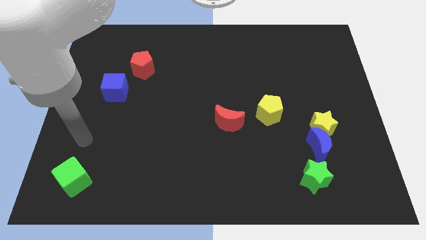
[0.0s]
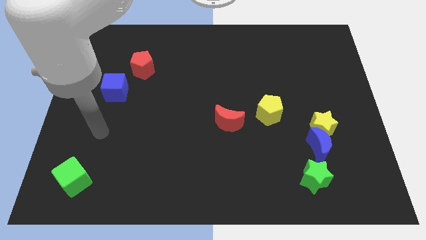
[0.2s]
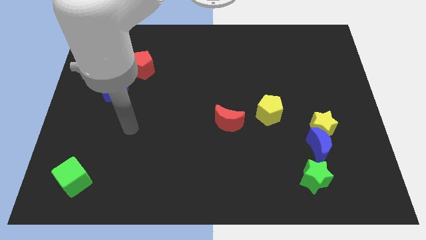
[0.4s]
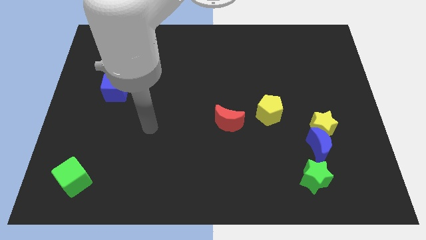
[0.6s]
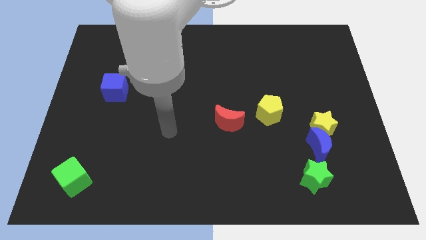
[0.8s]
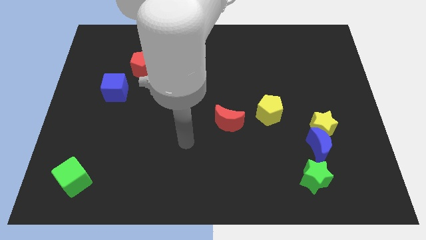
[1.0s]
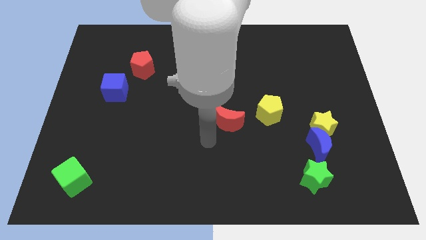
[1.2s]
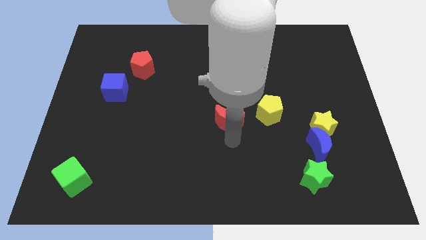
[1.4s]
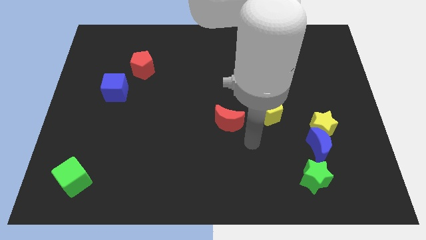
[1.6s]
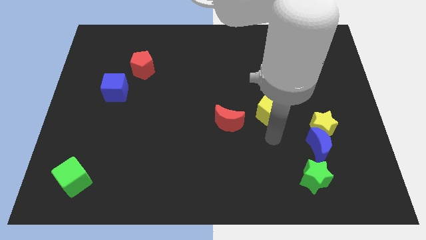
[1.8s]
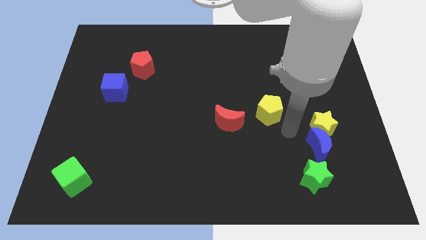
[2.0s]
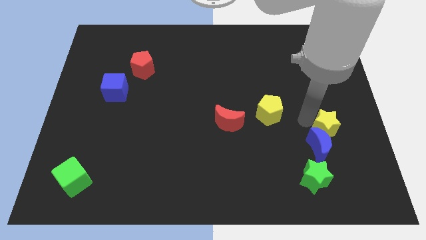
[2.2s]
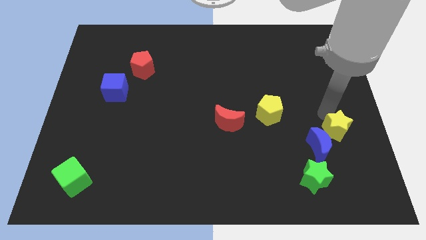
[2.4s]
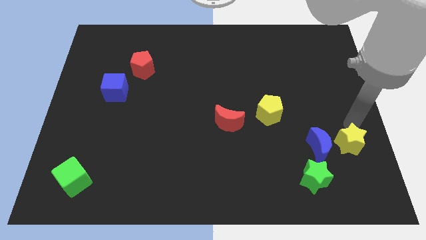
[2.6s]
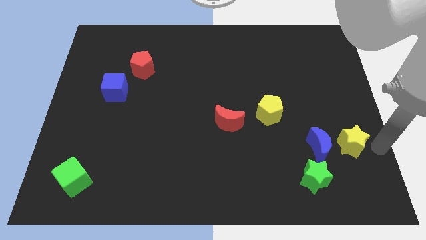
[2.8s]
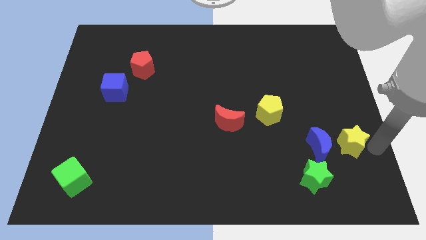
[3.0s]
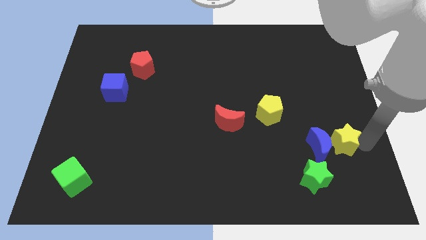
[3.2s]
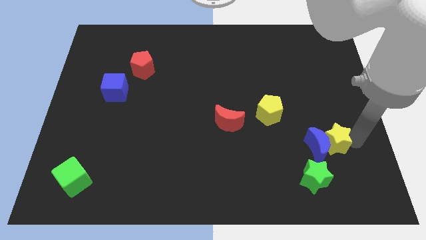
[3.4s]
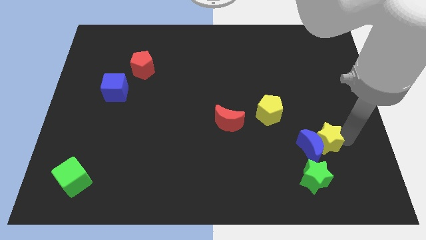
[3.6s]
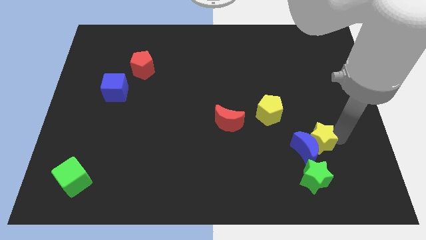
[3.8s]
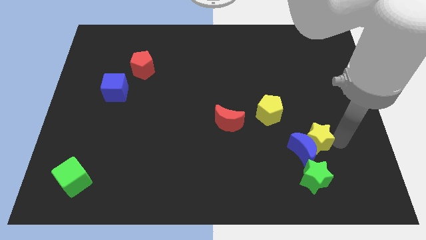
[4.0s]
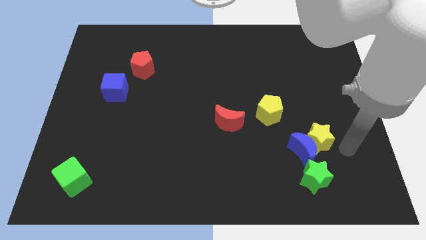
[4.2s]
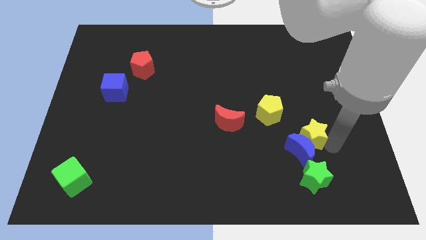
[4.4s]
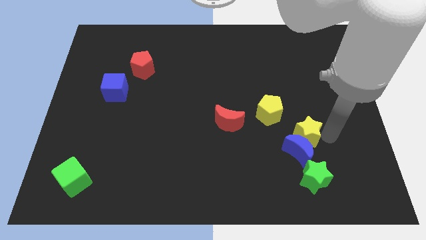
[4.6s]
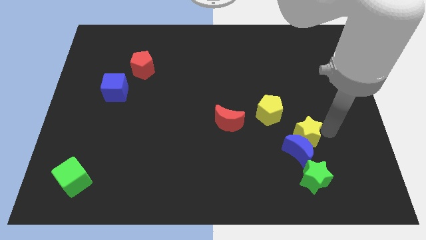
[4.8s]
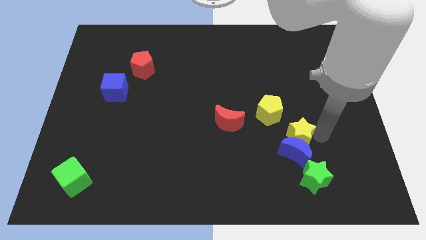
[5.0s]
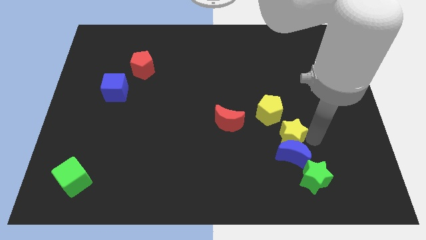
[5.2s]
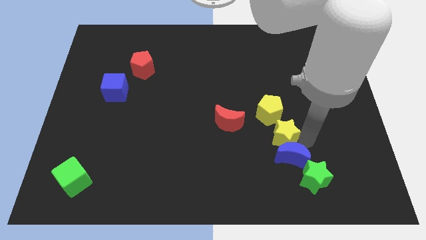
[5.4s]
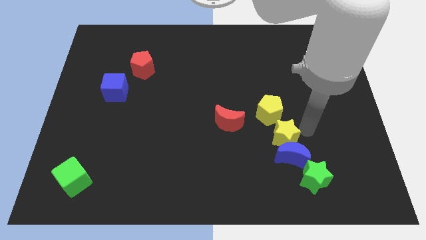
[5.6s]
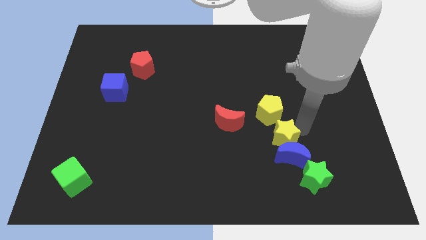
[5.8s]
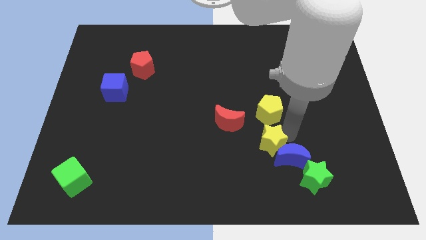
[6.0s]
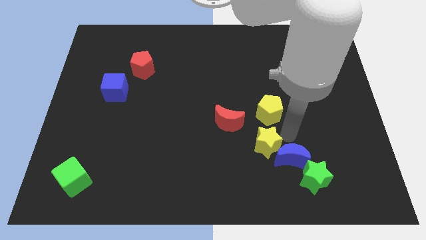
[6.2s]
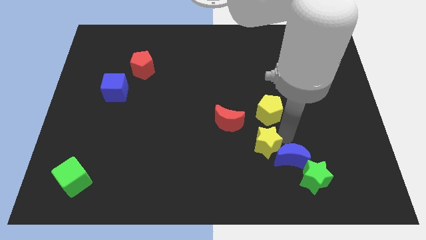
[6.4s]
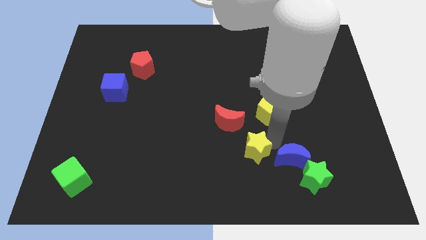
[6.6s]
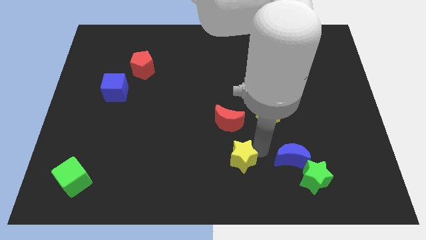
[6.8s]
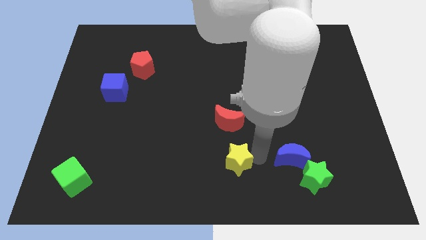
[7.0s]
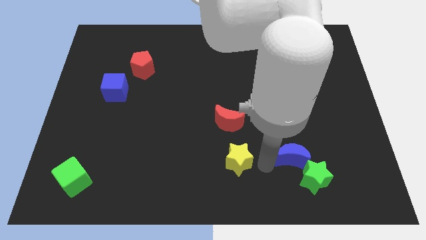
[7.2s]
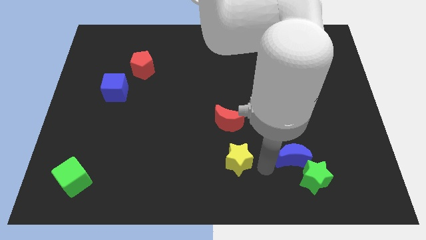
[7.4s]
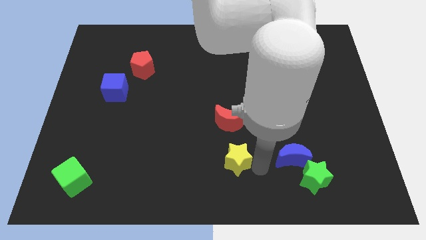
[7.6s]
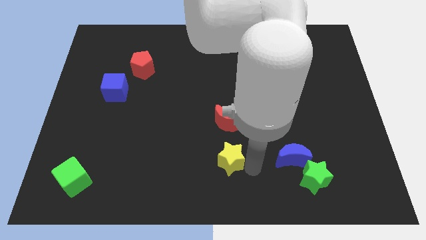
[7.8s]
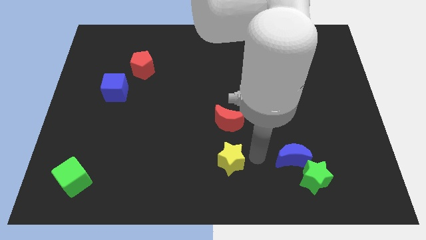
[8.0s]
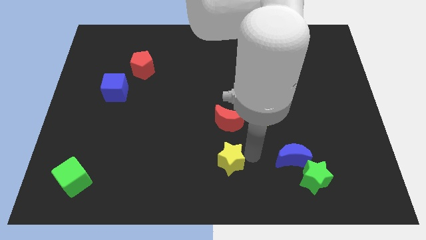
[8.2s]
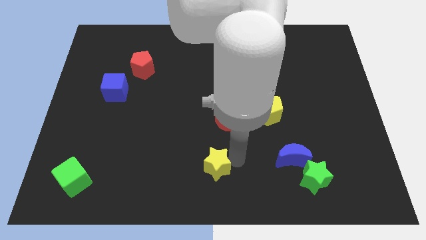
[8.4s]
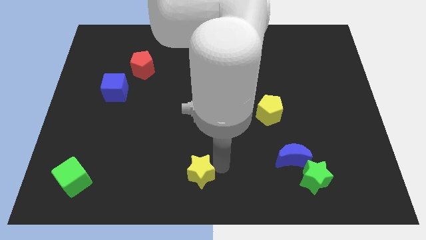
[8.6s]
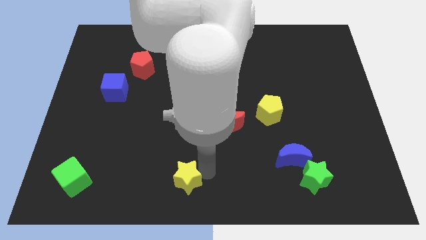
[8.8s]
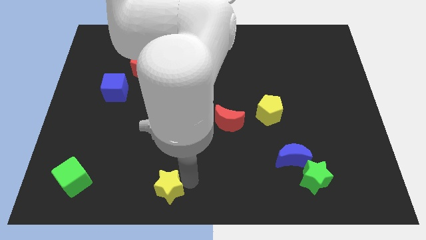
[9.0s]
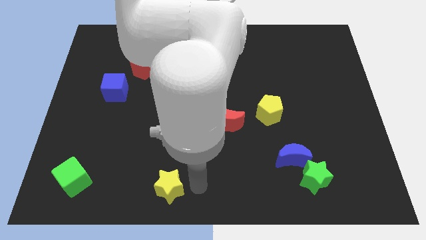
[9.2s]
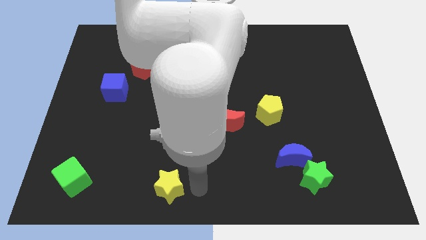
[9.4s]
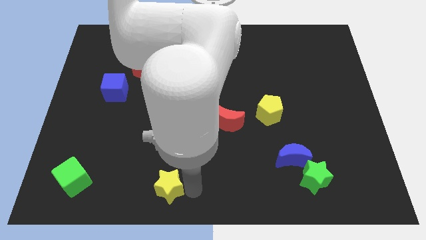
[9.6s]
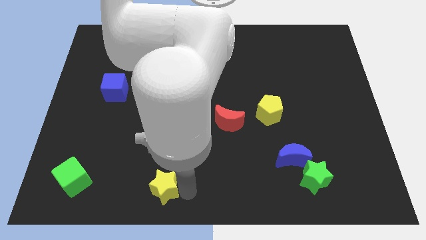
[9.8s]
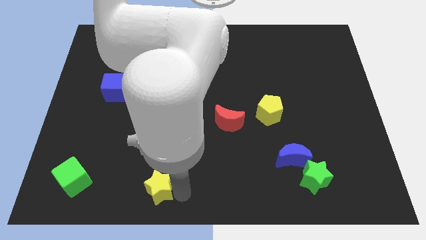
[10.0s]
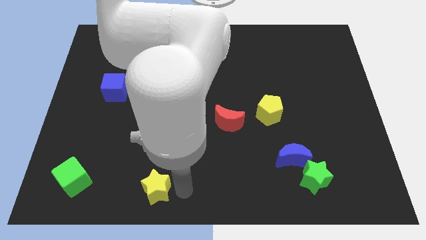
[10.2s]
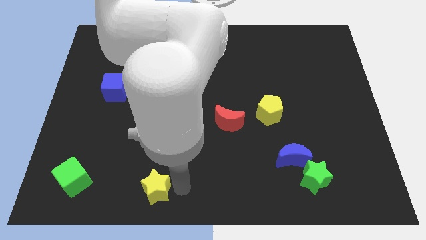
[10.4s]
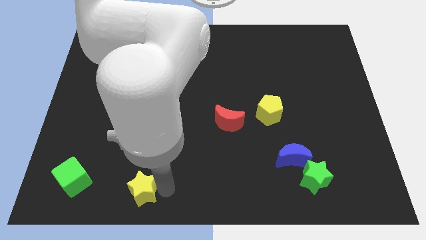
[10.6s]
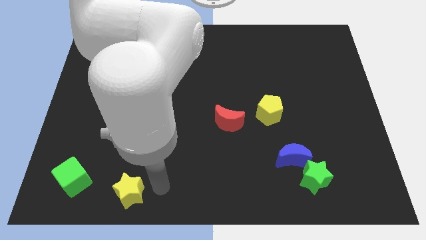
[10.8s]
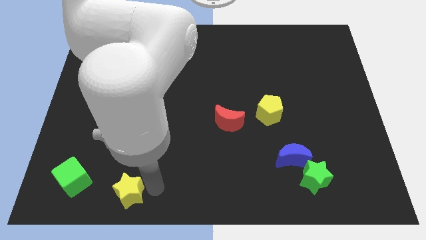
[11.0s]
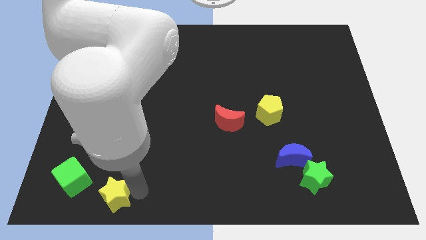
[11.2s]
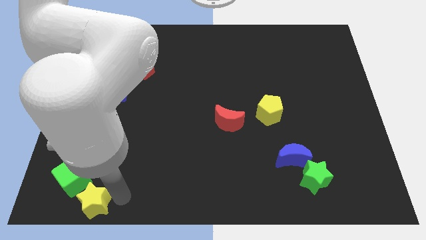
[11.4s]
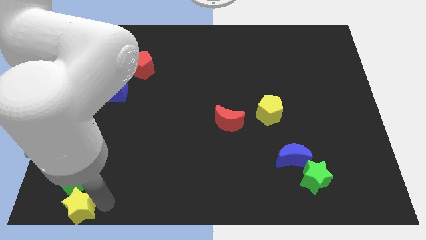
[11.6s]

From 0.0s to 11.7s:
push the yellow star to the bottom left corner

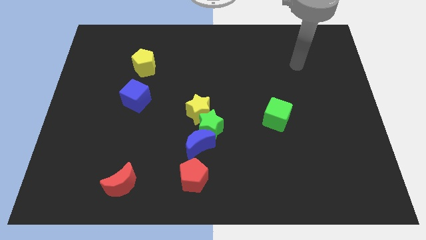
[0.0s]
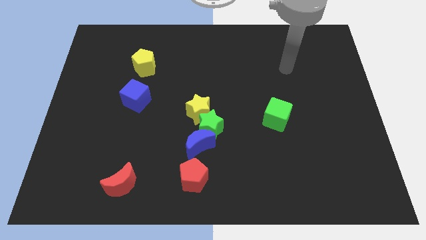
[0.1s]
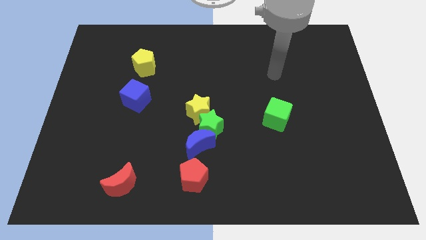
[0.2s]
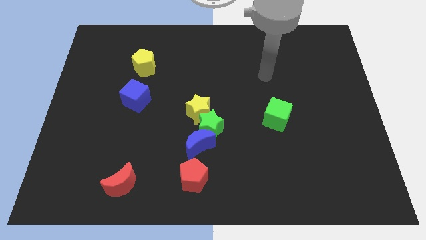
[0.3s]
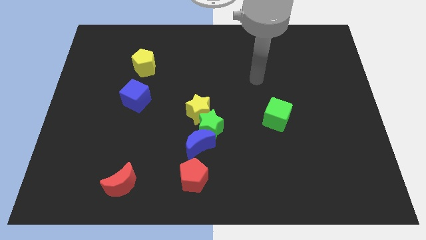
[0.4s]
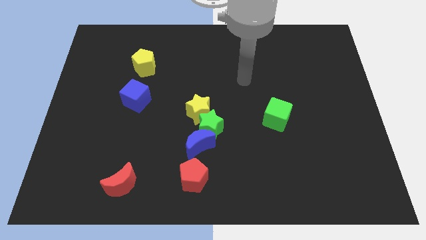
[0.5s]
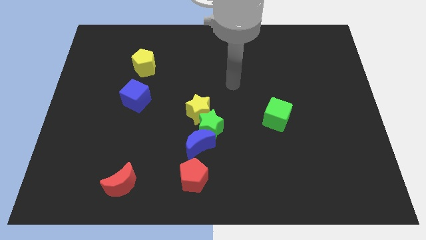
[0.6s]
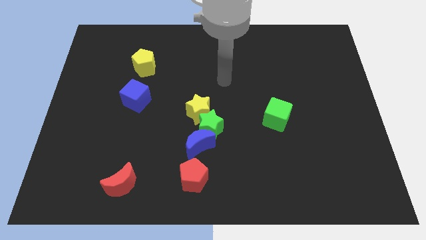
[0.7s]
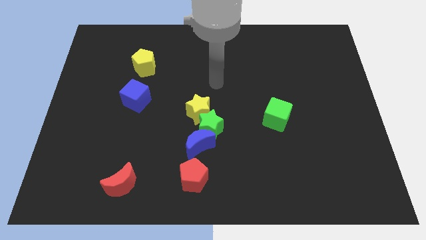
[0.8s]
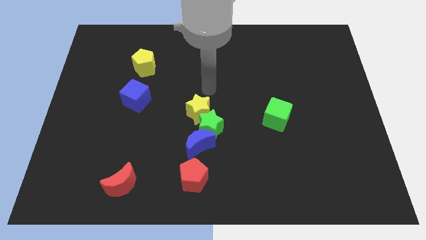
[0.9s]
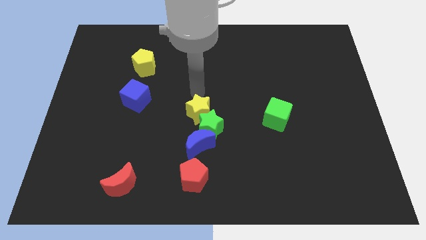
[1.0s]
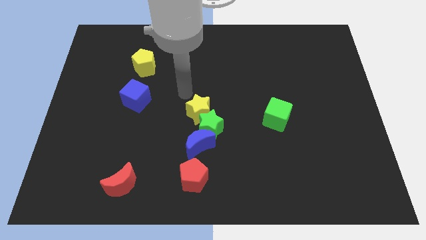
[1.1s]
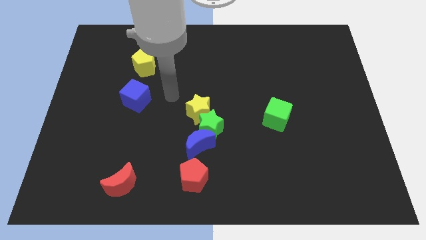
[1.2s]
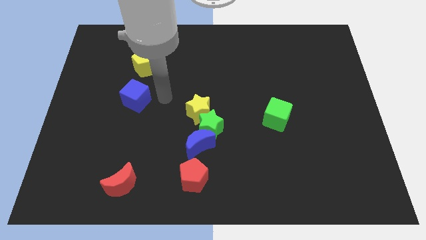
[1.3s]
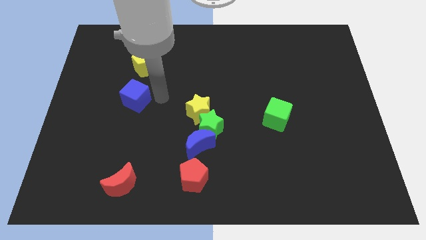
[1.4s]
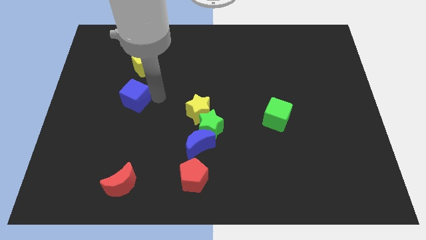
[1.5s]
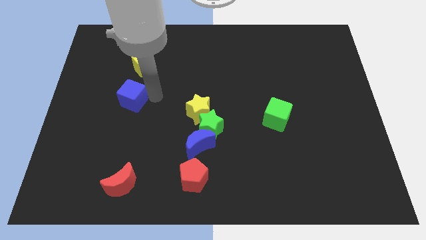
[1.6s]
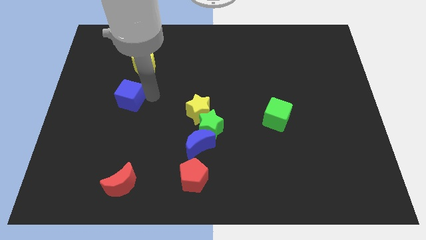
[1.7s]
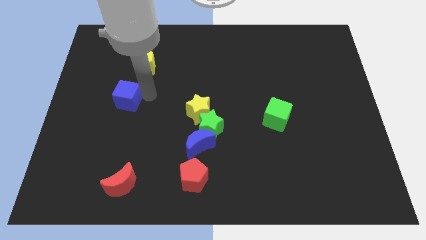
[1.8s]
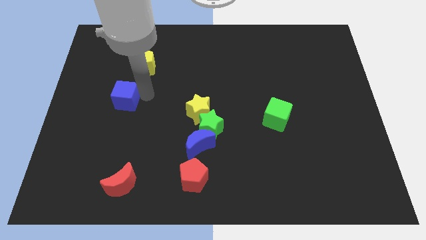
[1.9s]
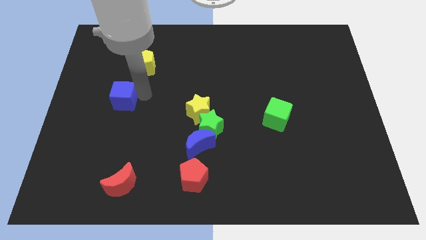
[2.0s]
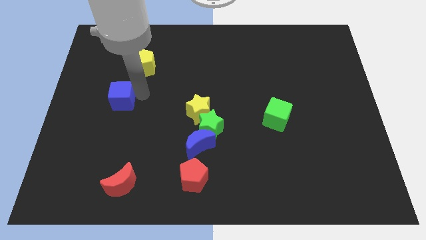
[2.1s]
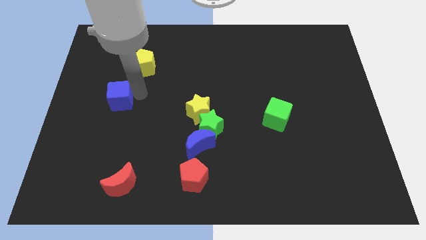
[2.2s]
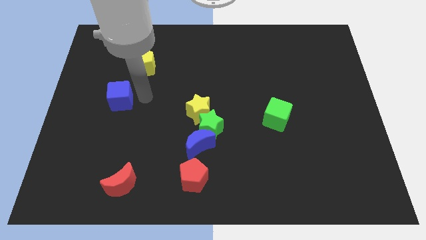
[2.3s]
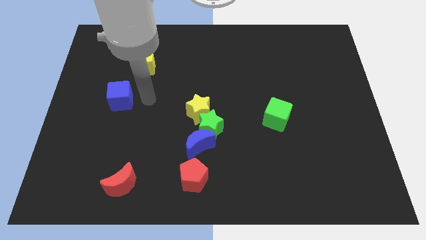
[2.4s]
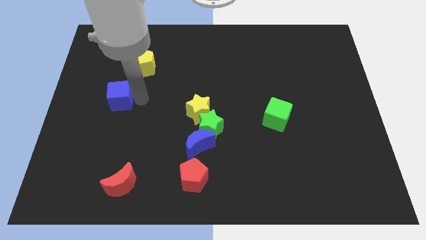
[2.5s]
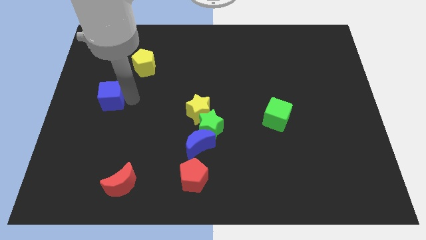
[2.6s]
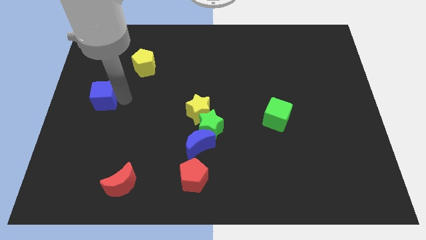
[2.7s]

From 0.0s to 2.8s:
move the blue cube to the center left
